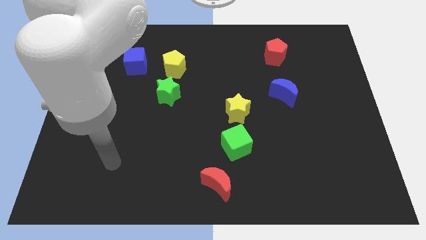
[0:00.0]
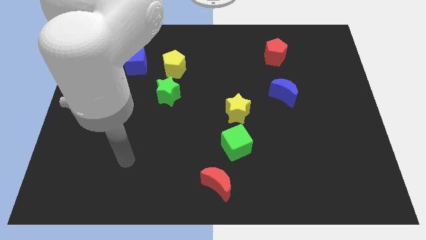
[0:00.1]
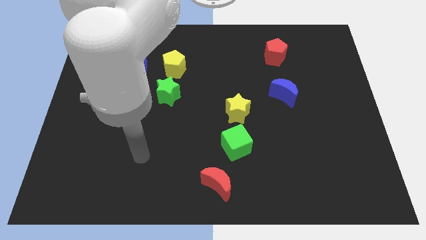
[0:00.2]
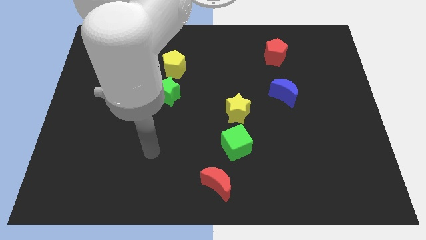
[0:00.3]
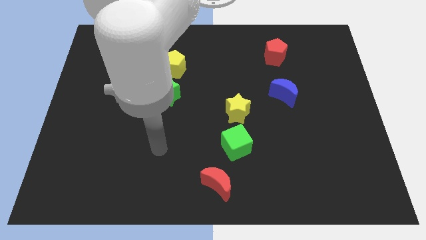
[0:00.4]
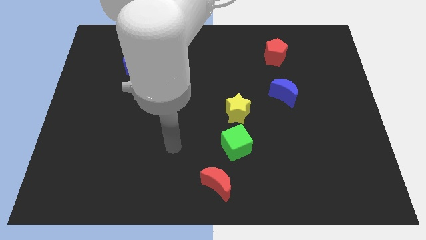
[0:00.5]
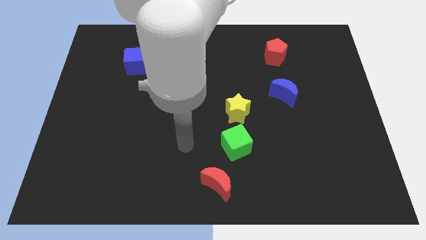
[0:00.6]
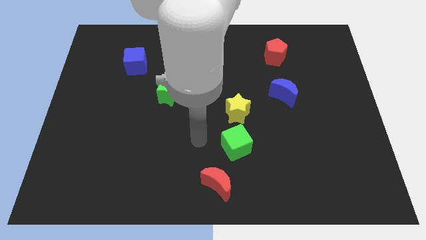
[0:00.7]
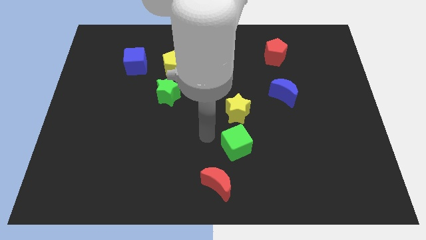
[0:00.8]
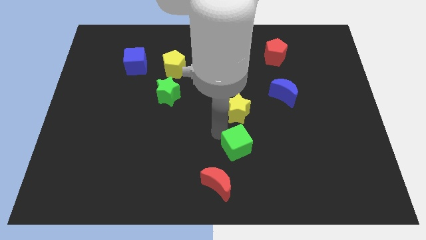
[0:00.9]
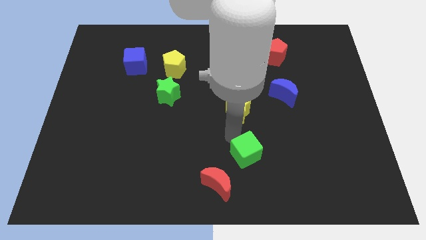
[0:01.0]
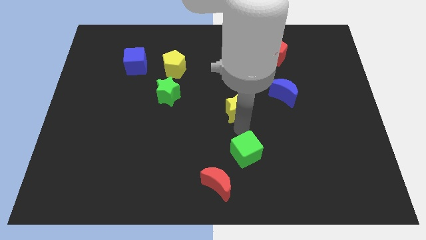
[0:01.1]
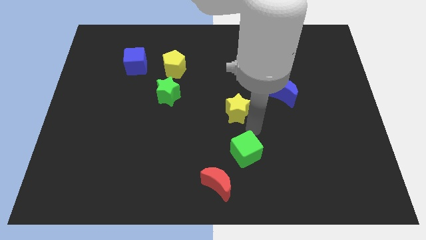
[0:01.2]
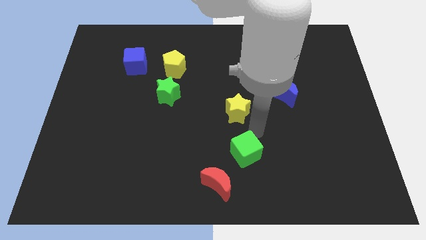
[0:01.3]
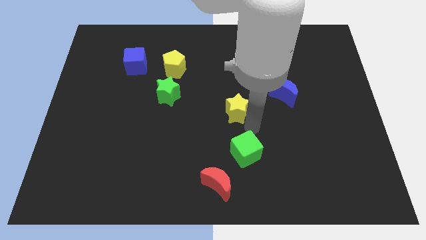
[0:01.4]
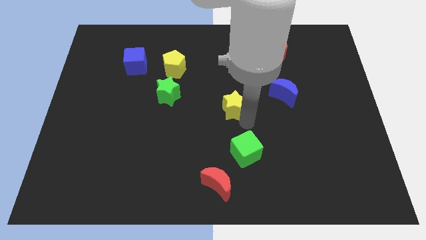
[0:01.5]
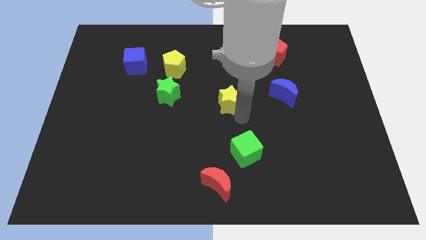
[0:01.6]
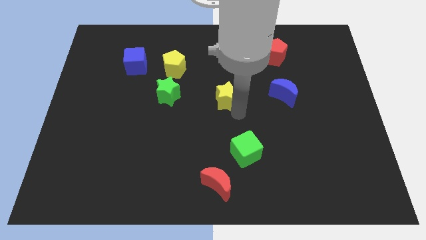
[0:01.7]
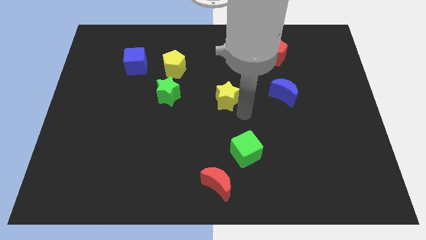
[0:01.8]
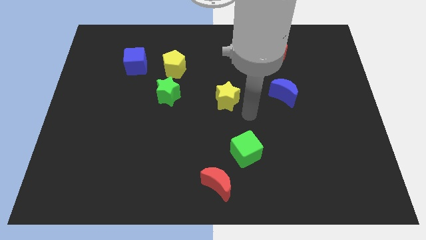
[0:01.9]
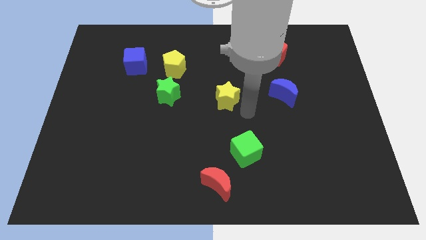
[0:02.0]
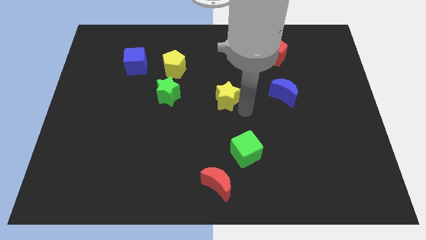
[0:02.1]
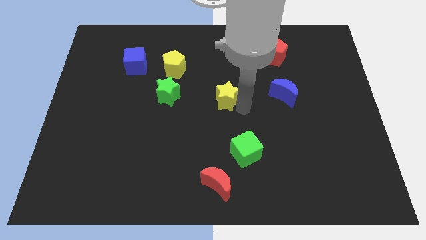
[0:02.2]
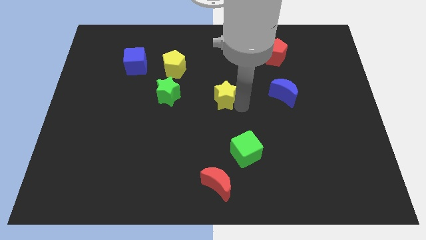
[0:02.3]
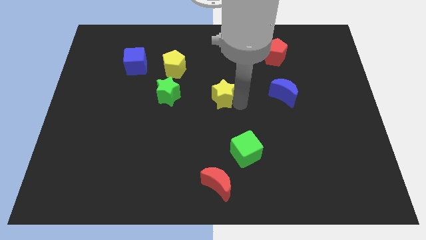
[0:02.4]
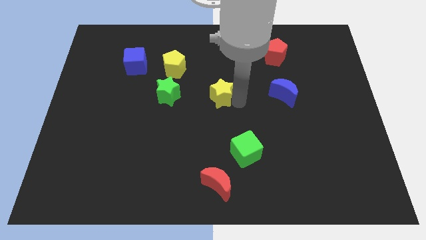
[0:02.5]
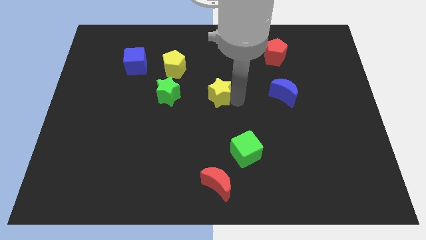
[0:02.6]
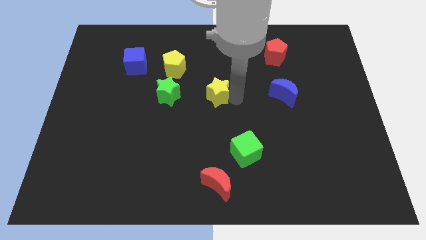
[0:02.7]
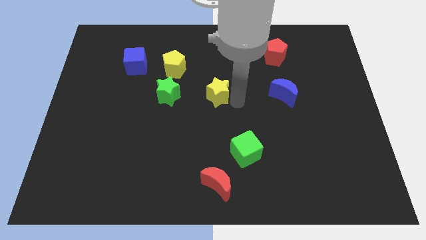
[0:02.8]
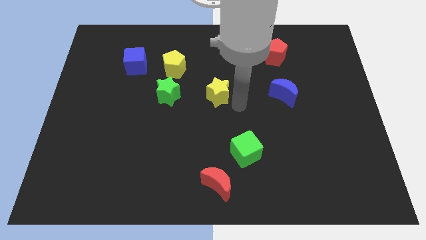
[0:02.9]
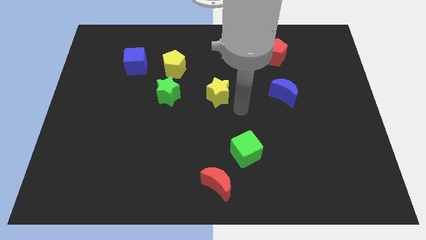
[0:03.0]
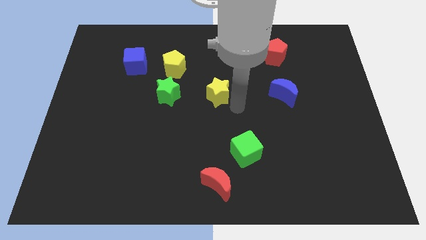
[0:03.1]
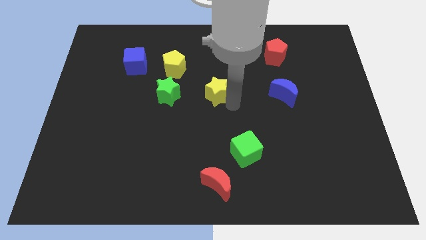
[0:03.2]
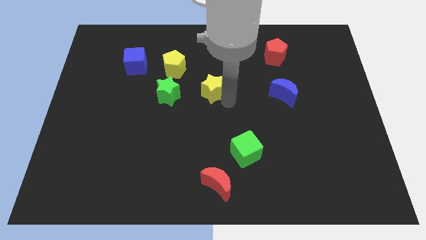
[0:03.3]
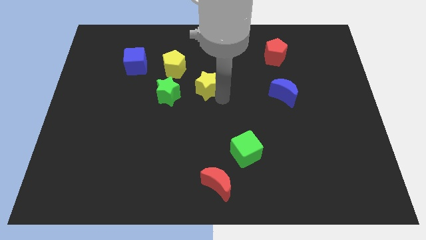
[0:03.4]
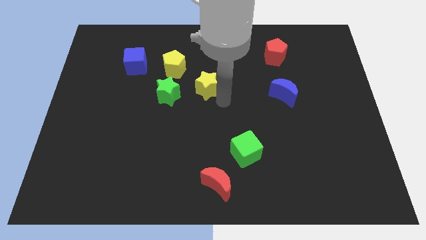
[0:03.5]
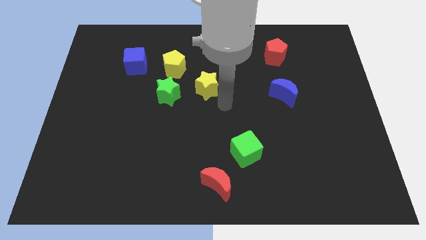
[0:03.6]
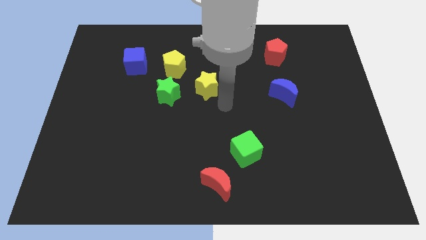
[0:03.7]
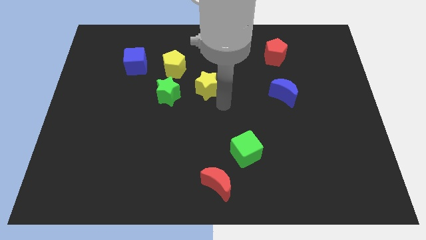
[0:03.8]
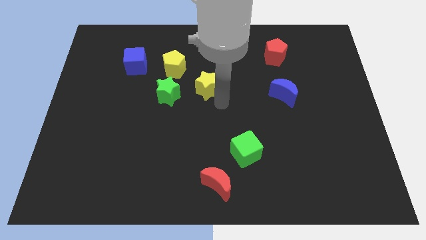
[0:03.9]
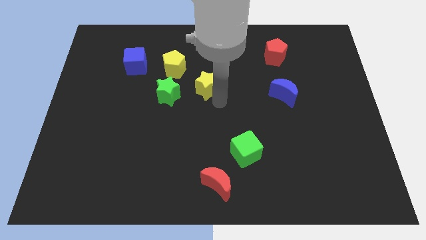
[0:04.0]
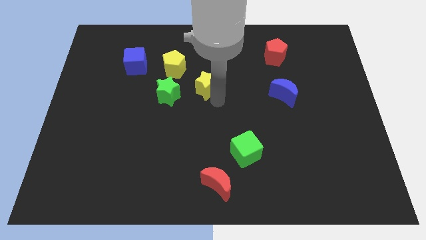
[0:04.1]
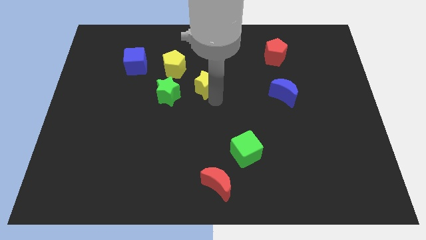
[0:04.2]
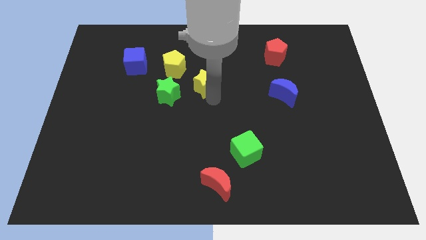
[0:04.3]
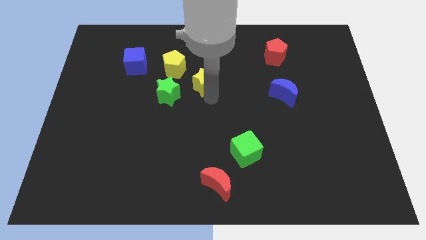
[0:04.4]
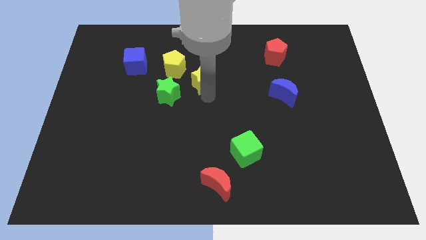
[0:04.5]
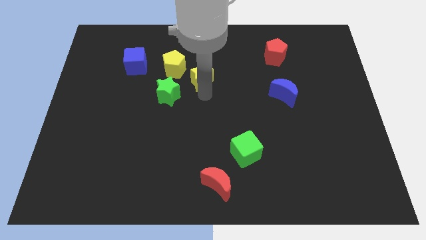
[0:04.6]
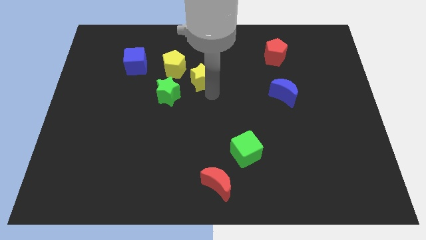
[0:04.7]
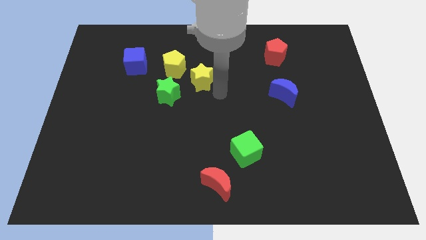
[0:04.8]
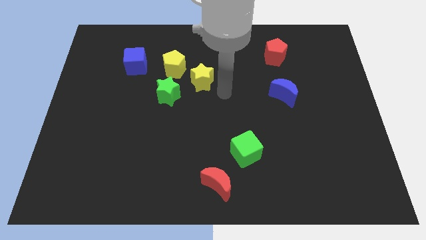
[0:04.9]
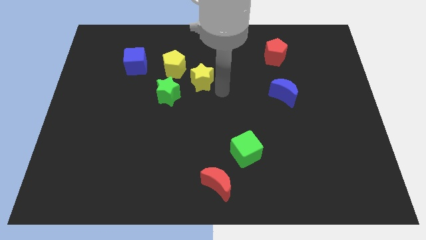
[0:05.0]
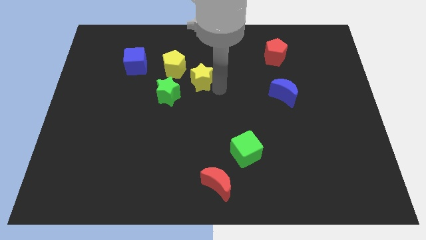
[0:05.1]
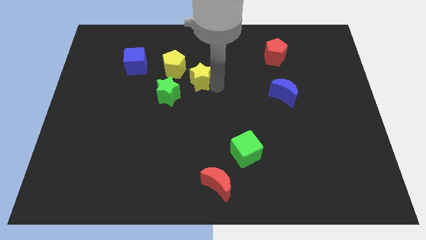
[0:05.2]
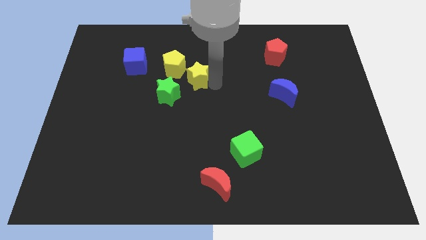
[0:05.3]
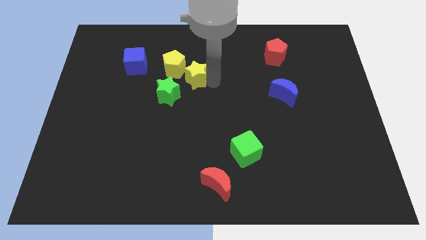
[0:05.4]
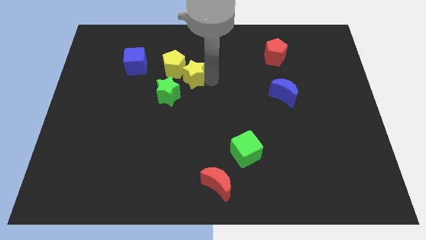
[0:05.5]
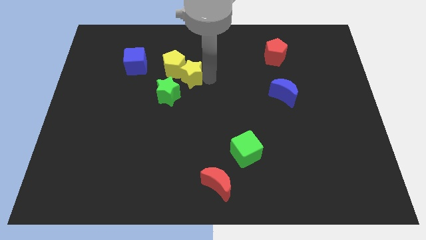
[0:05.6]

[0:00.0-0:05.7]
slide the yellow star towards the yellow pentagon

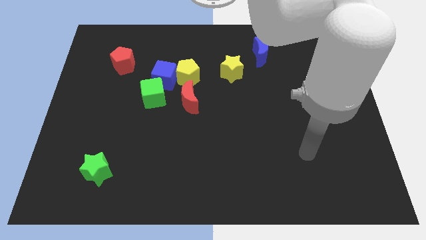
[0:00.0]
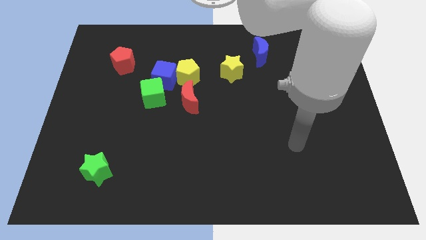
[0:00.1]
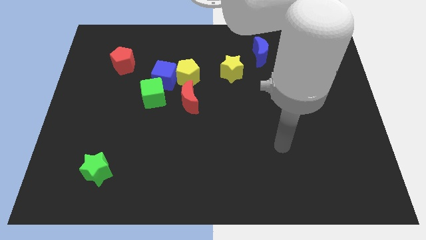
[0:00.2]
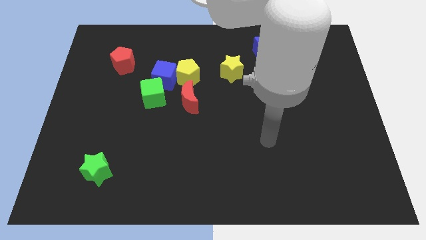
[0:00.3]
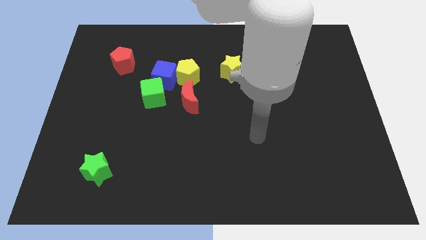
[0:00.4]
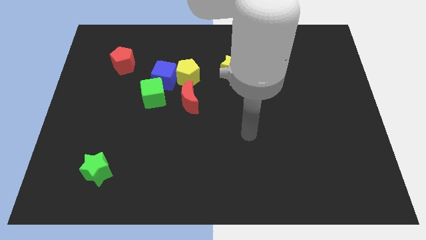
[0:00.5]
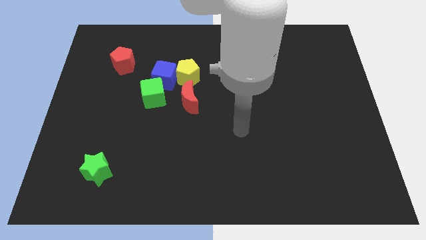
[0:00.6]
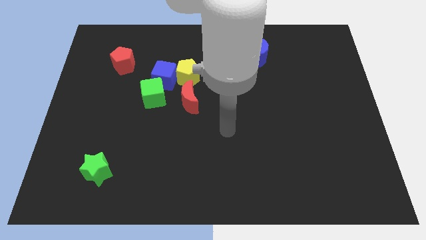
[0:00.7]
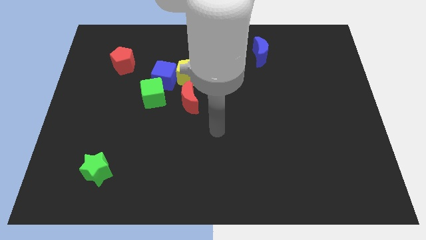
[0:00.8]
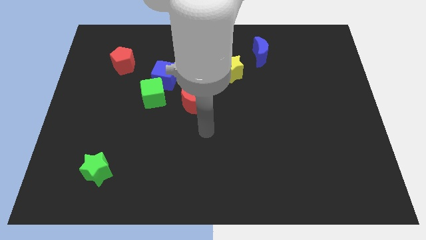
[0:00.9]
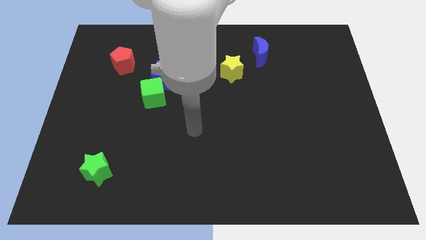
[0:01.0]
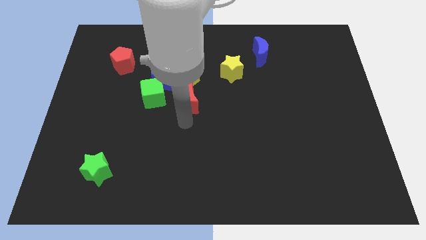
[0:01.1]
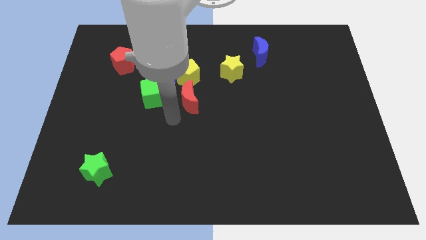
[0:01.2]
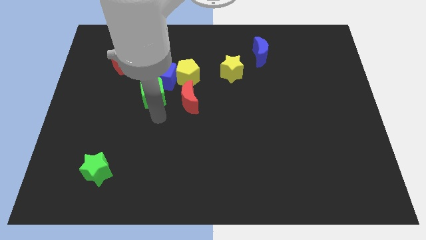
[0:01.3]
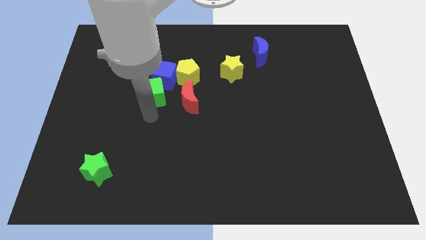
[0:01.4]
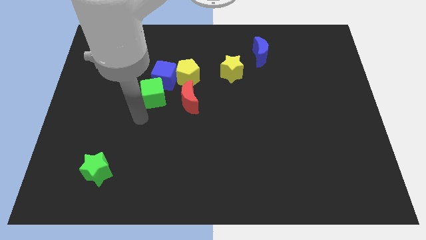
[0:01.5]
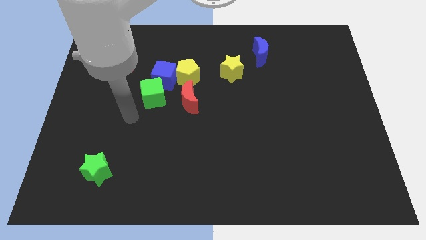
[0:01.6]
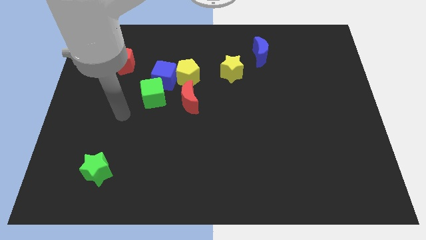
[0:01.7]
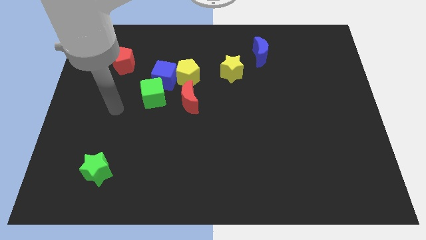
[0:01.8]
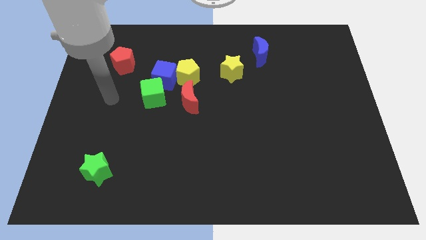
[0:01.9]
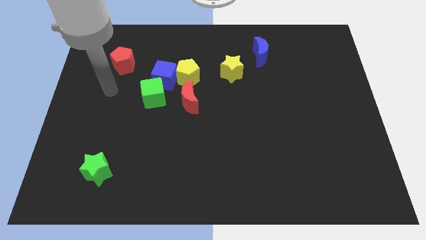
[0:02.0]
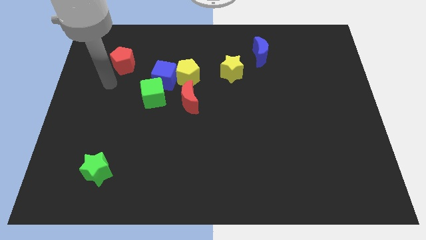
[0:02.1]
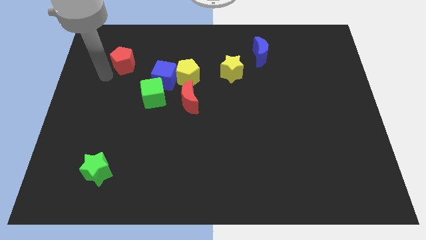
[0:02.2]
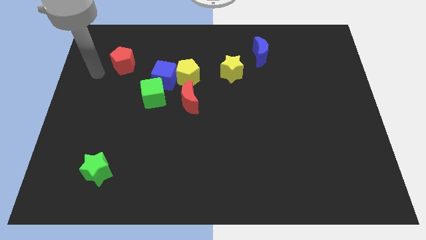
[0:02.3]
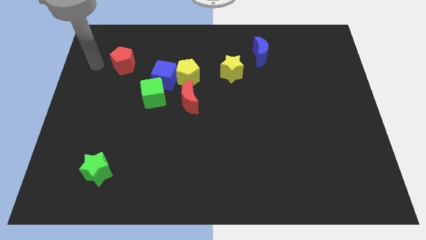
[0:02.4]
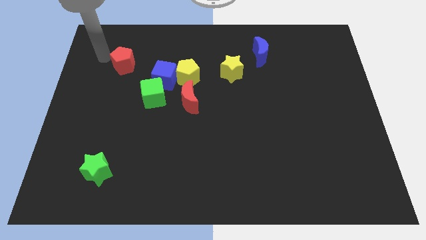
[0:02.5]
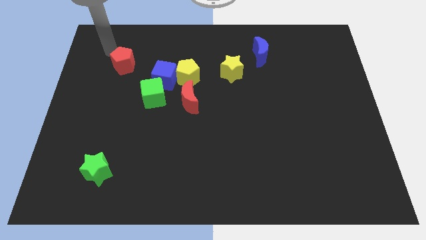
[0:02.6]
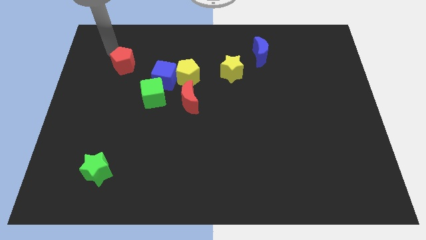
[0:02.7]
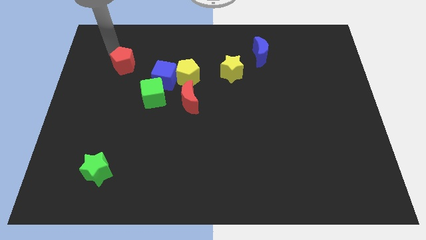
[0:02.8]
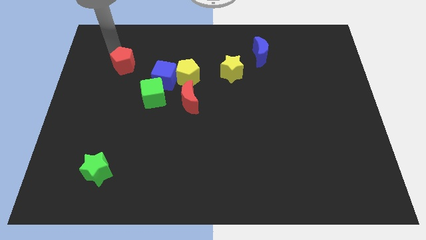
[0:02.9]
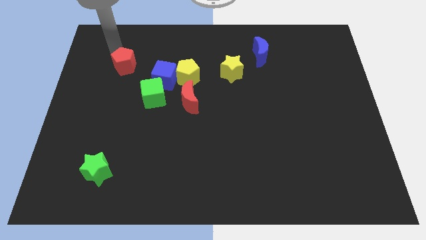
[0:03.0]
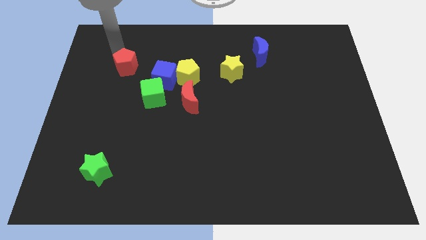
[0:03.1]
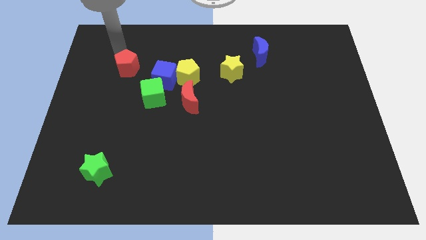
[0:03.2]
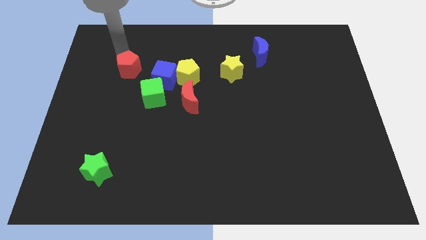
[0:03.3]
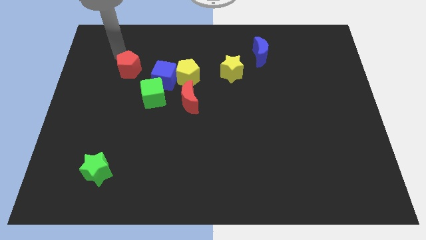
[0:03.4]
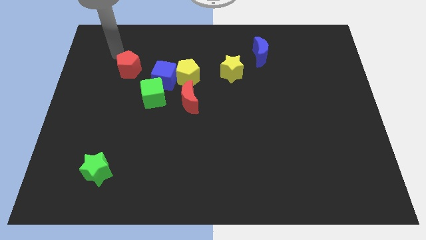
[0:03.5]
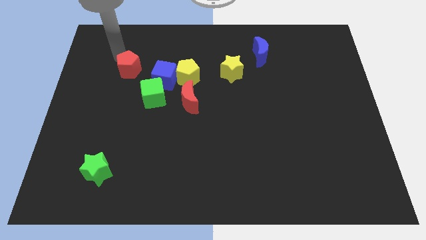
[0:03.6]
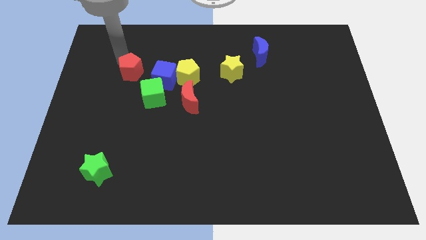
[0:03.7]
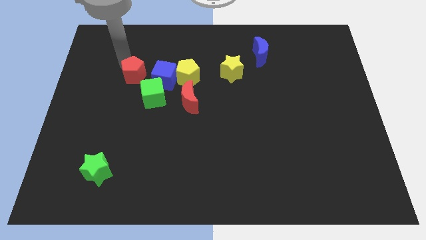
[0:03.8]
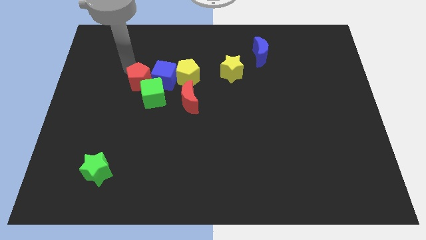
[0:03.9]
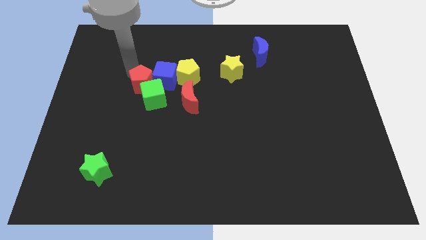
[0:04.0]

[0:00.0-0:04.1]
push the red pentagon next to the green cube
